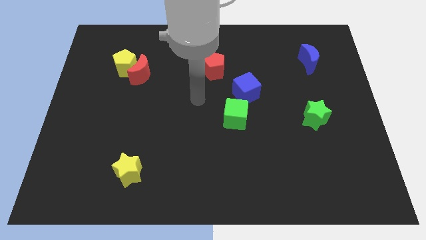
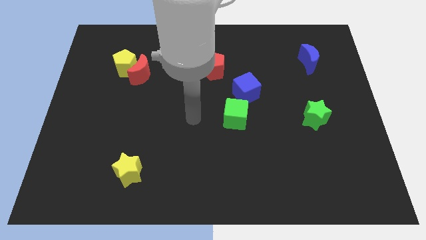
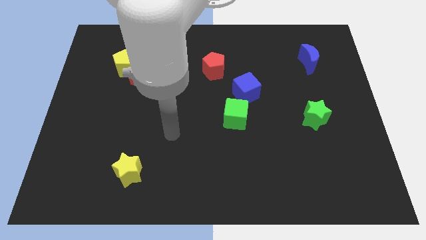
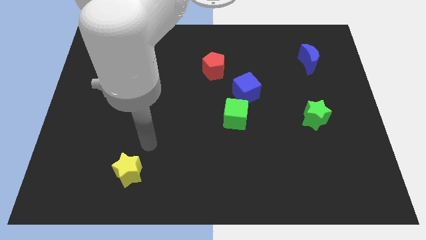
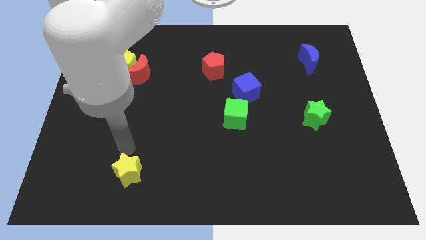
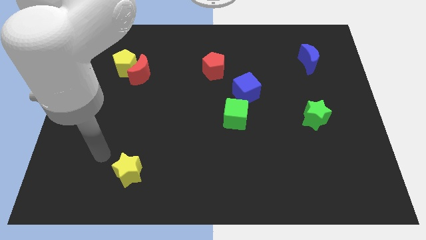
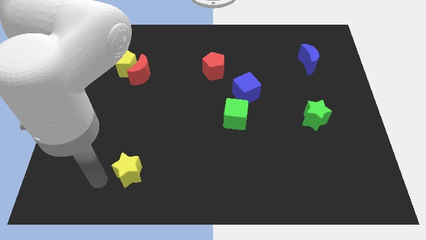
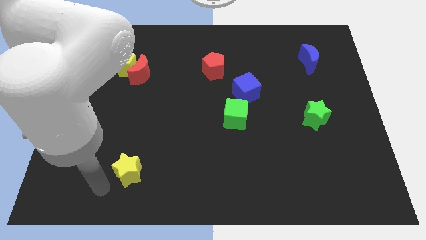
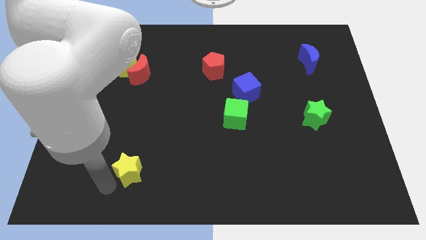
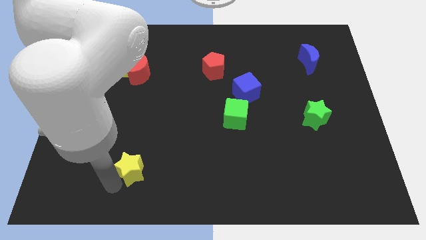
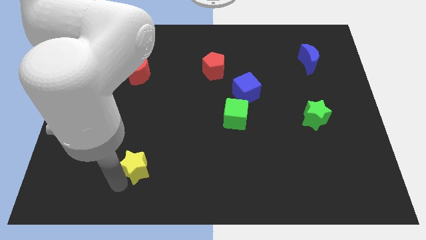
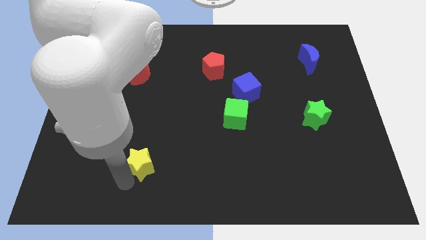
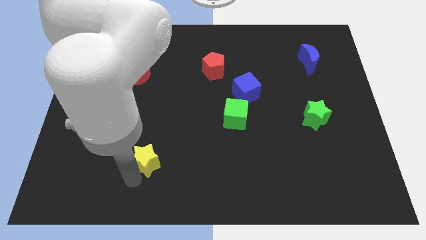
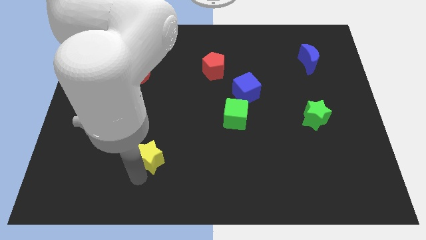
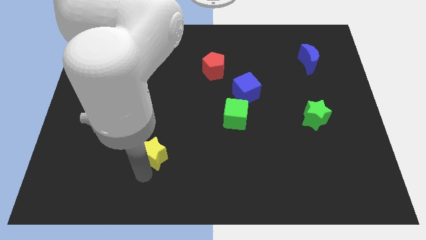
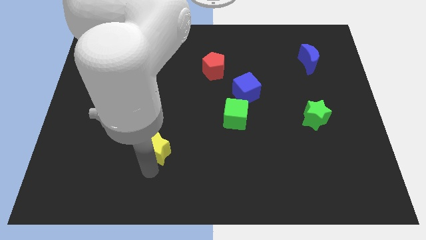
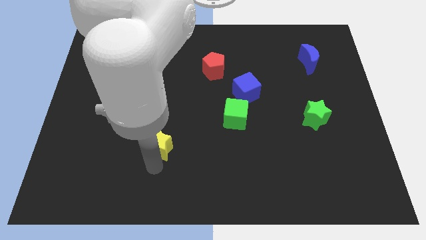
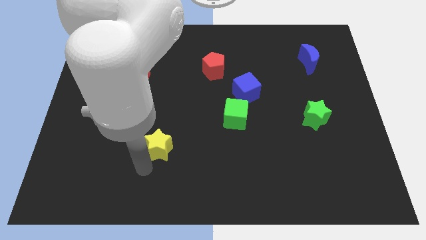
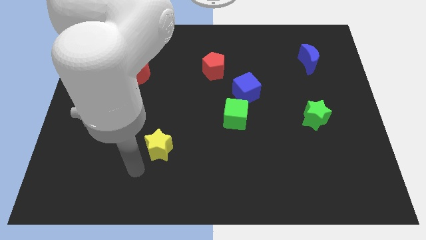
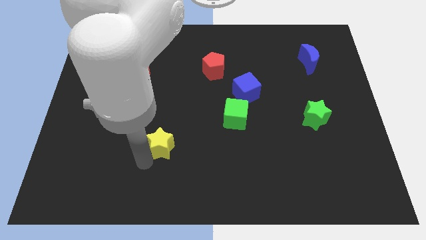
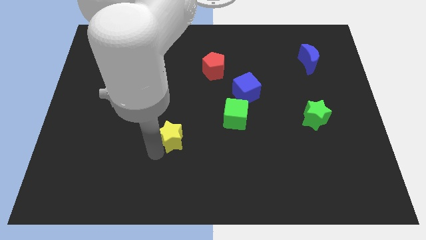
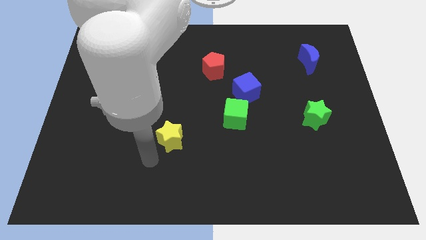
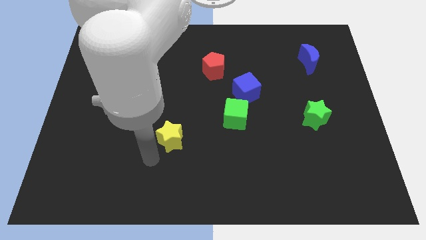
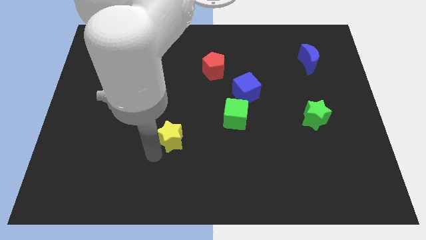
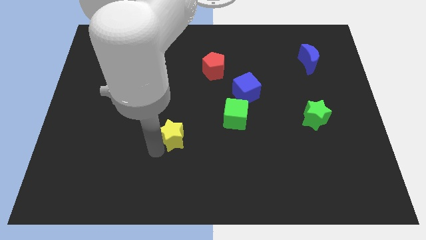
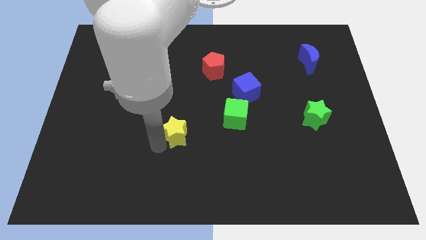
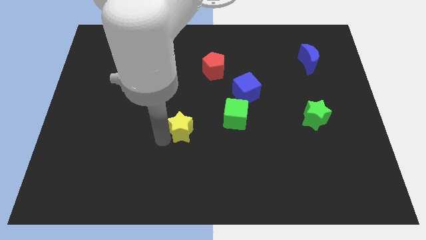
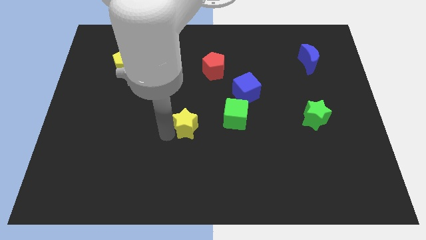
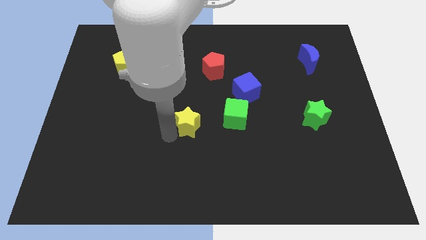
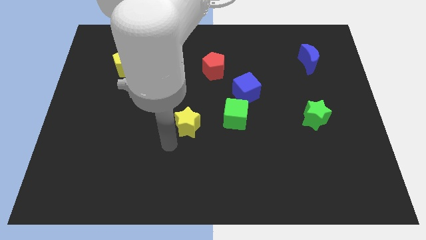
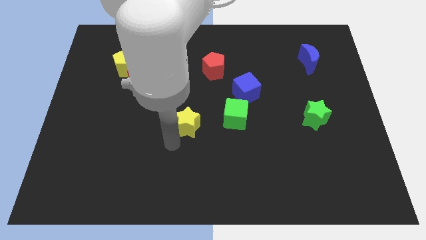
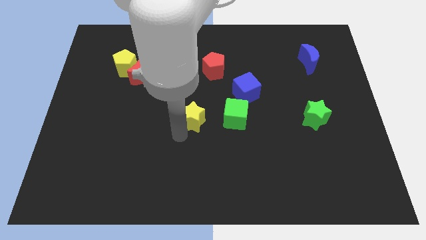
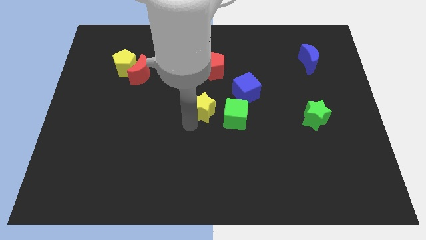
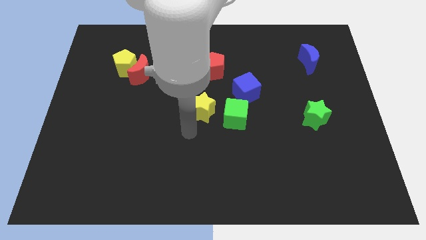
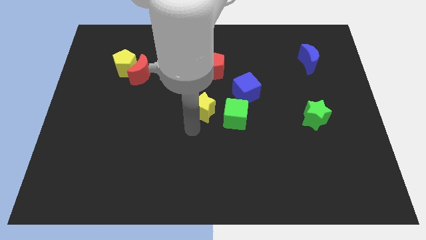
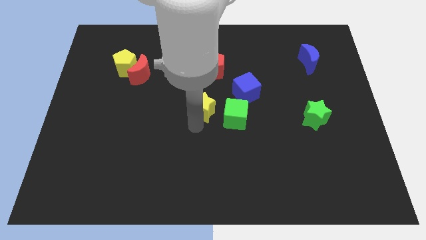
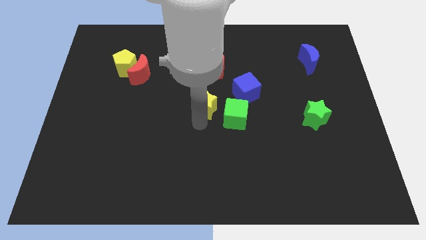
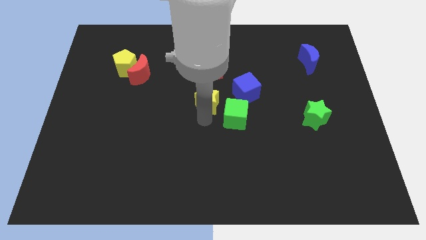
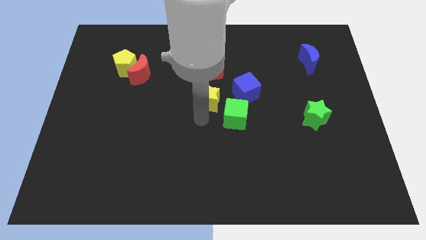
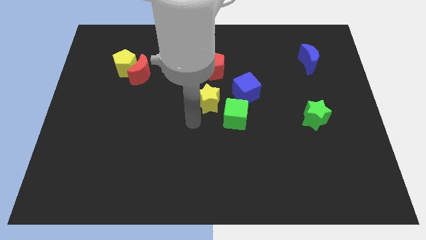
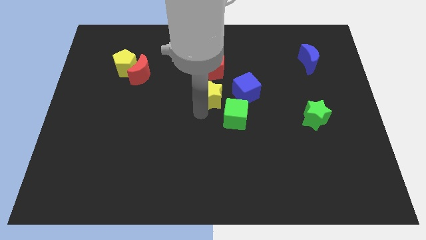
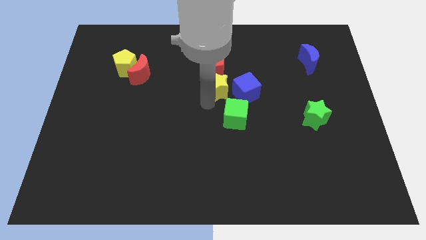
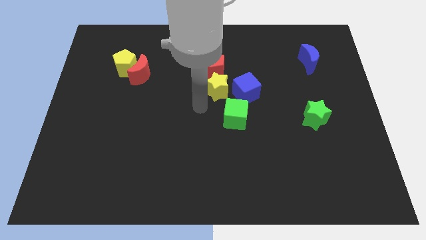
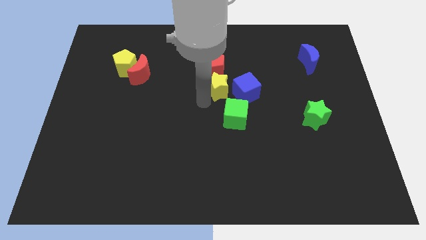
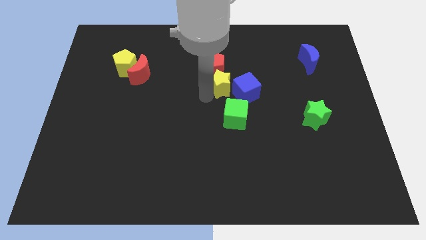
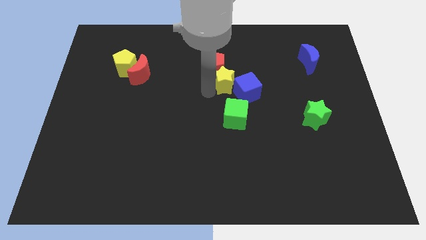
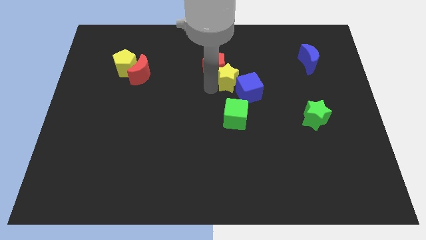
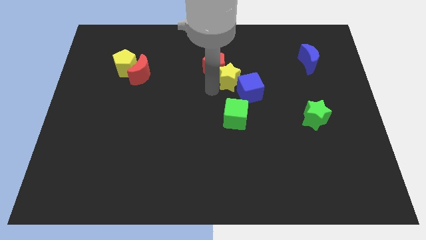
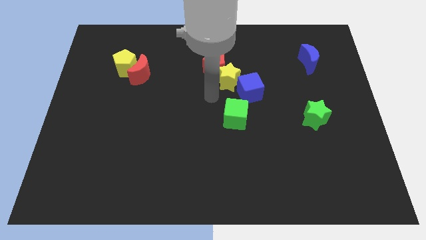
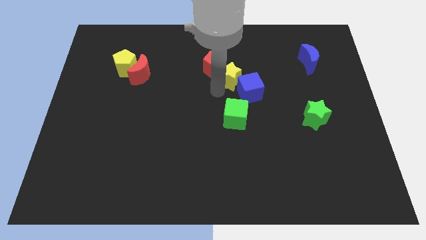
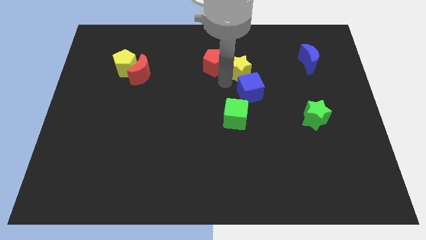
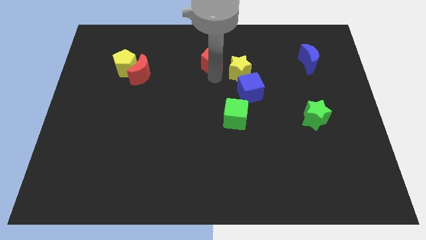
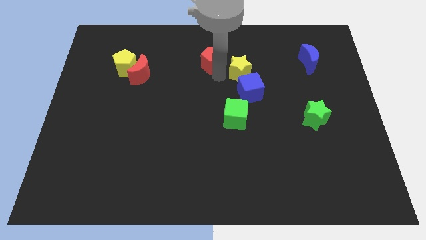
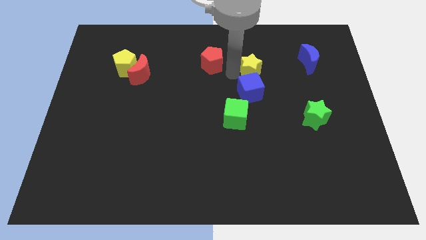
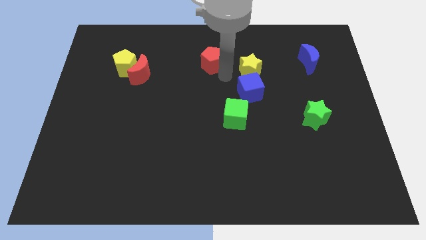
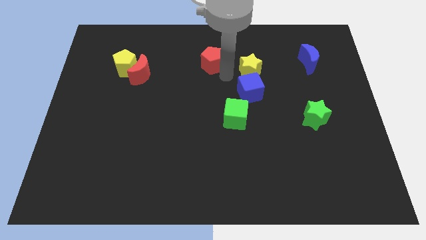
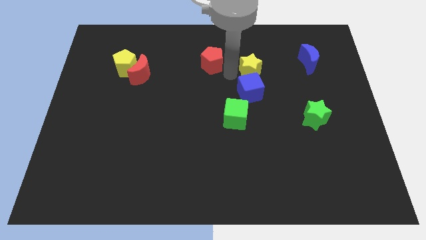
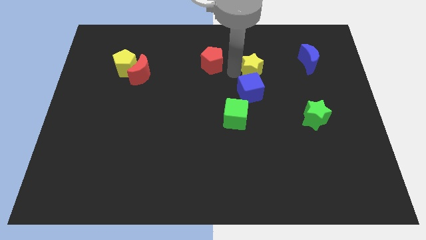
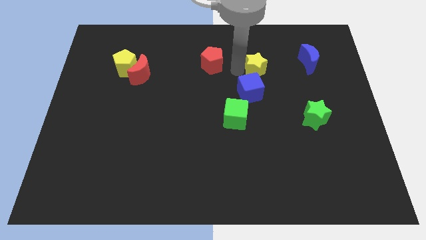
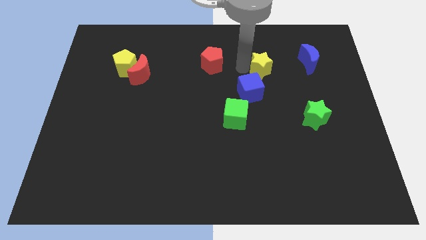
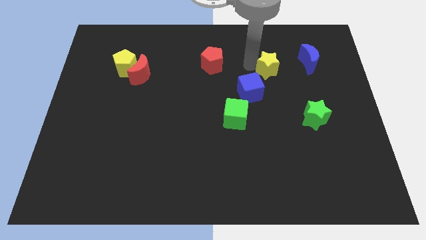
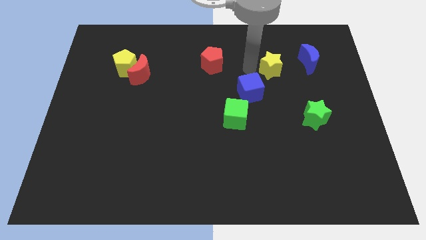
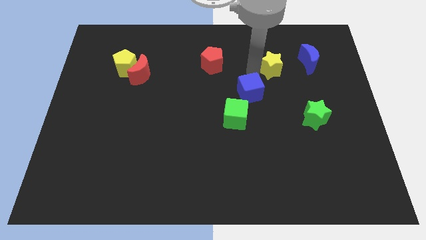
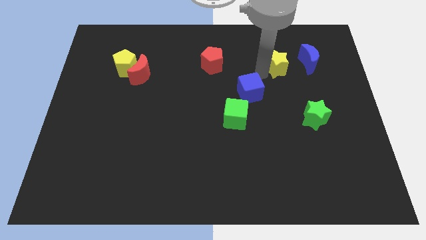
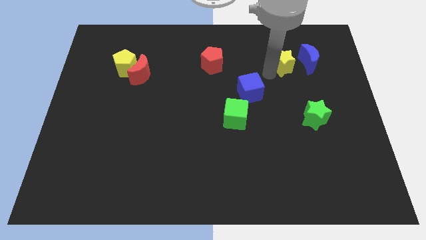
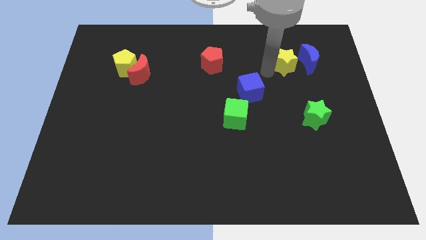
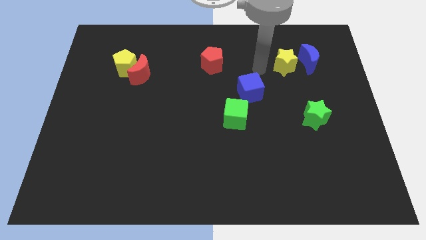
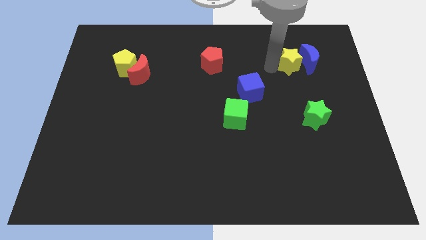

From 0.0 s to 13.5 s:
move the yellow star towards the blue moon

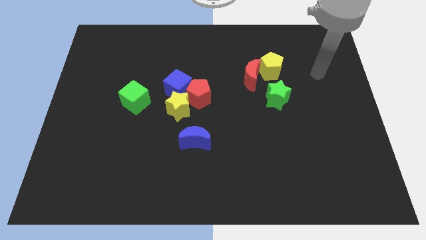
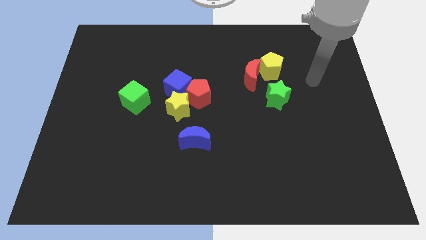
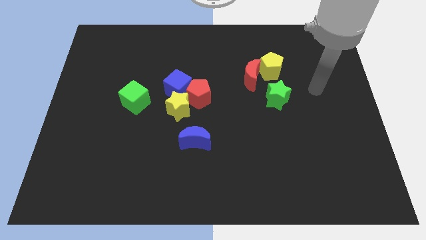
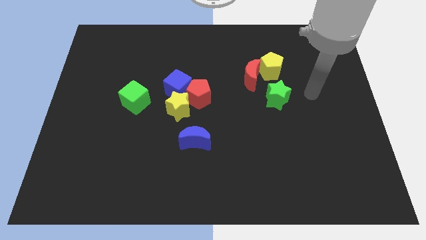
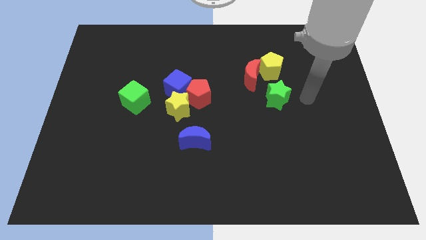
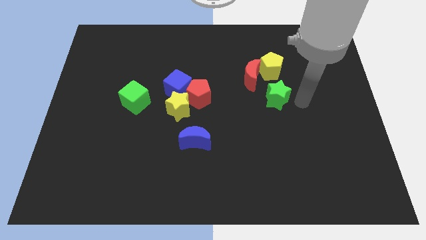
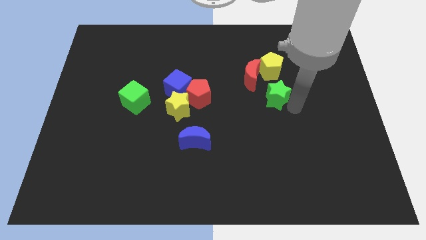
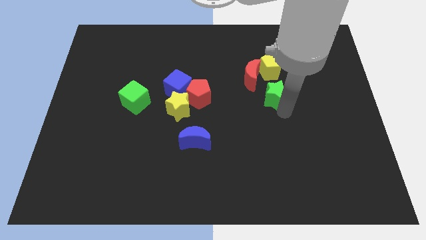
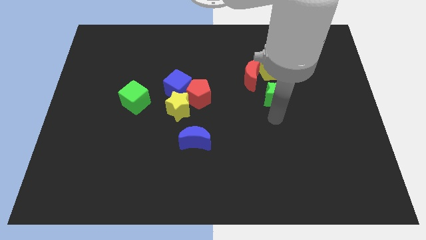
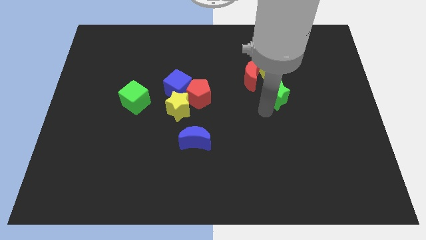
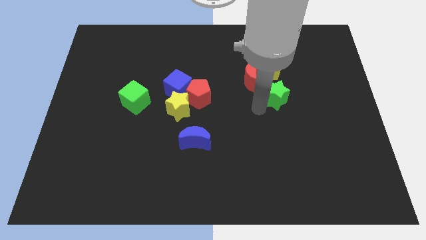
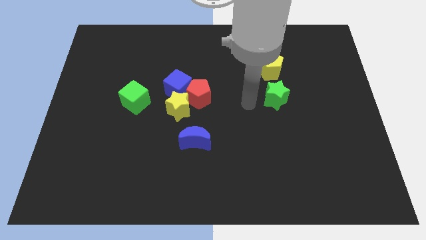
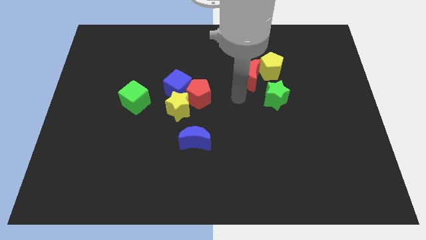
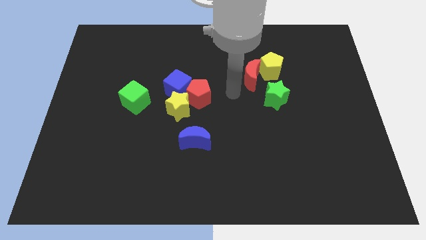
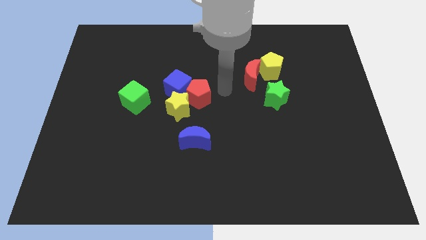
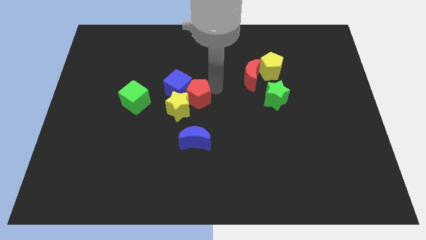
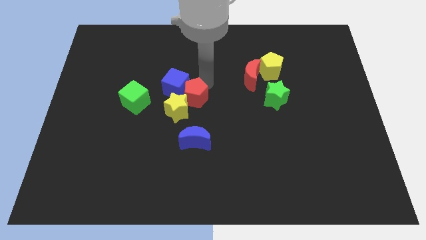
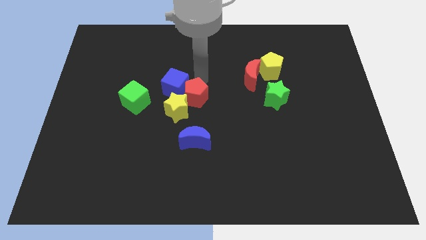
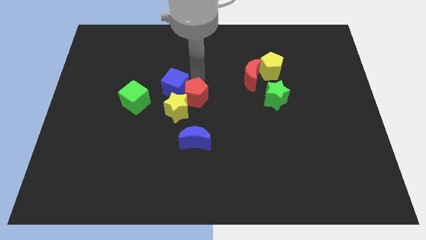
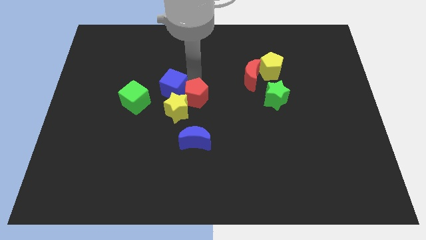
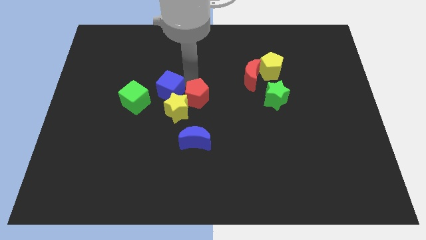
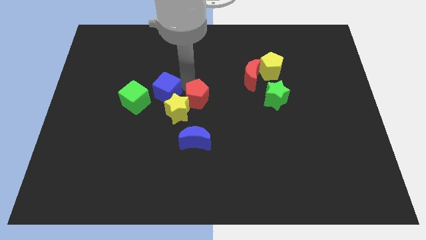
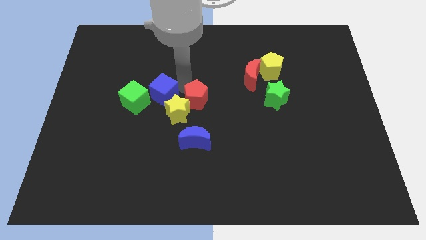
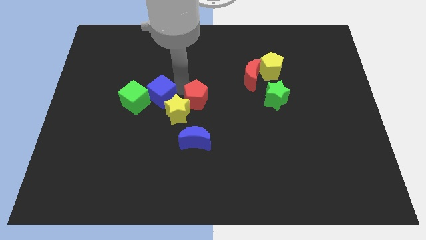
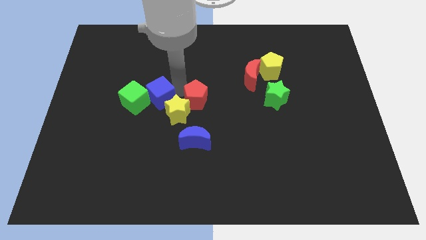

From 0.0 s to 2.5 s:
put the blue cube next to the green cube
